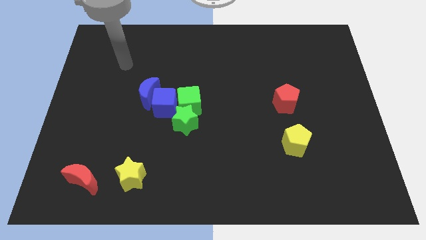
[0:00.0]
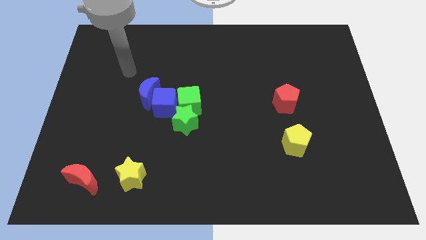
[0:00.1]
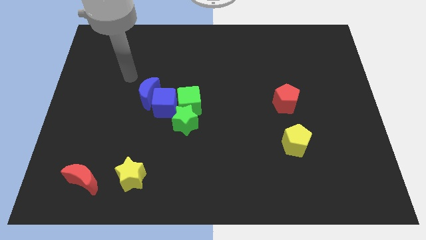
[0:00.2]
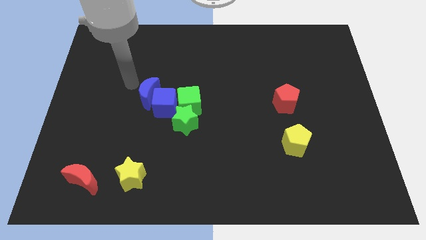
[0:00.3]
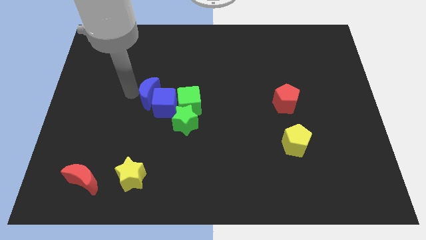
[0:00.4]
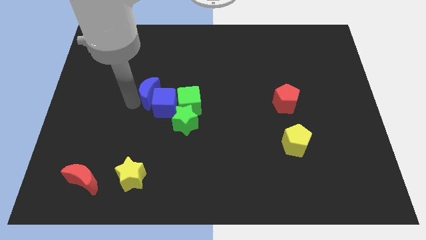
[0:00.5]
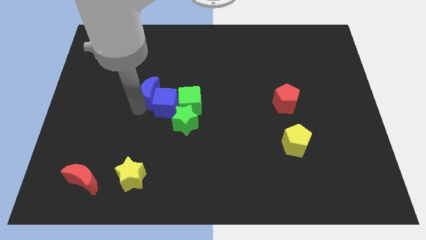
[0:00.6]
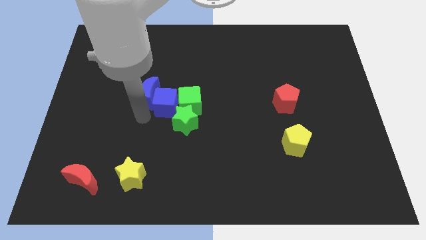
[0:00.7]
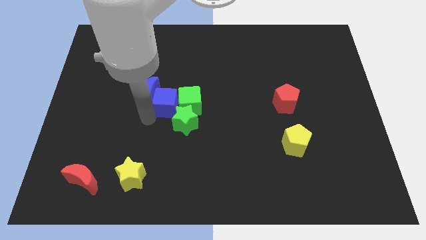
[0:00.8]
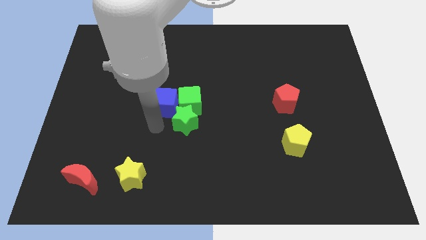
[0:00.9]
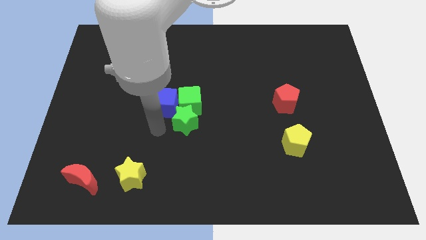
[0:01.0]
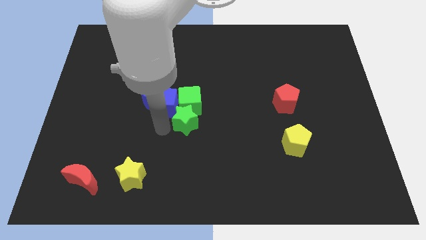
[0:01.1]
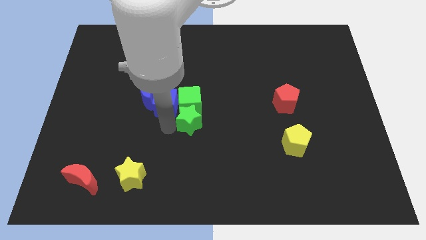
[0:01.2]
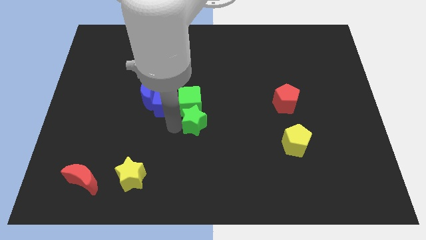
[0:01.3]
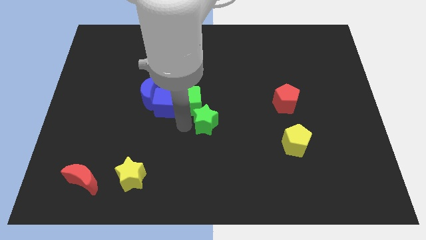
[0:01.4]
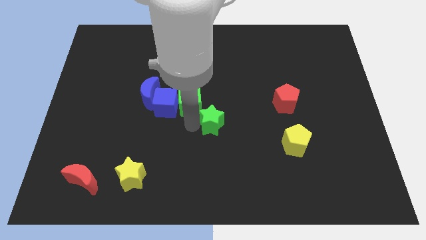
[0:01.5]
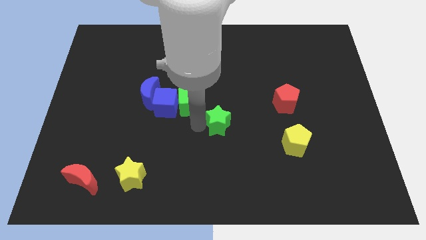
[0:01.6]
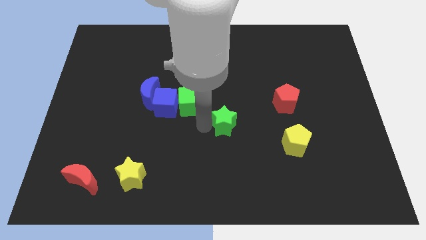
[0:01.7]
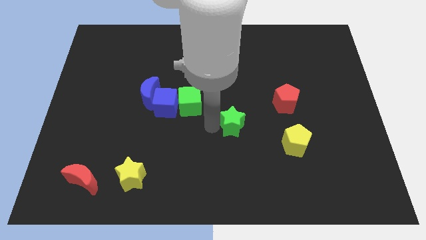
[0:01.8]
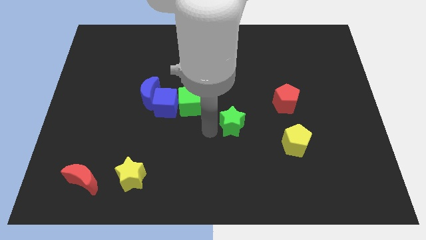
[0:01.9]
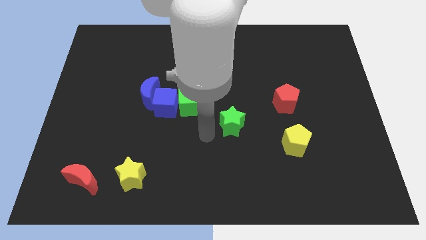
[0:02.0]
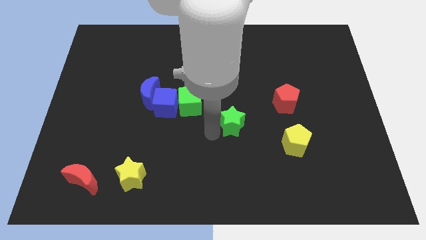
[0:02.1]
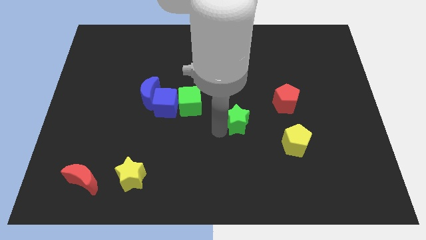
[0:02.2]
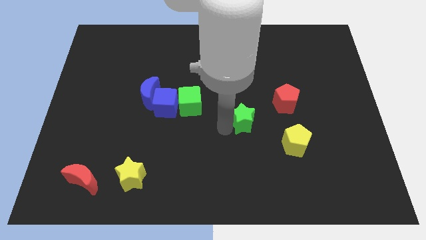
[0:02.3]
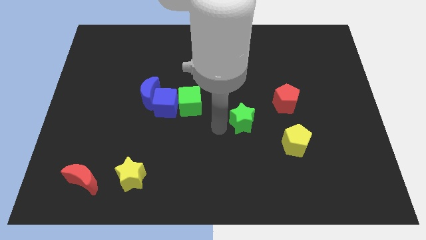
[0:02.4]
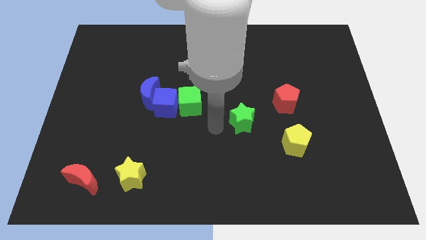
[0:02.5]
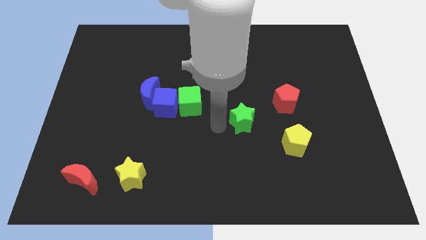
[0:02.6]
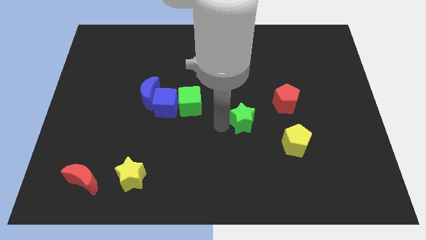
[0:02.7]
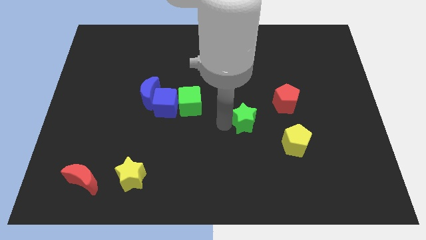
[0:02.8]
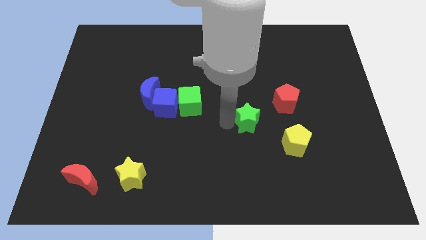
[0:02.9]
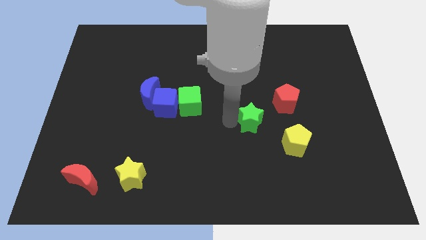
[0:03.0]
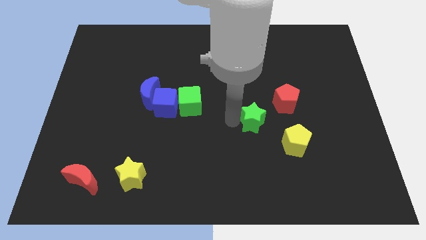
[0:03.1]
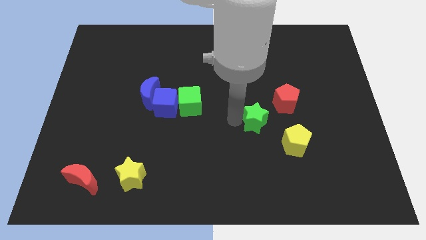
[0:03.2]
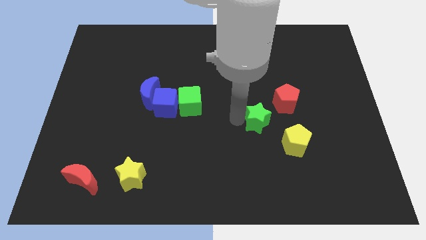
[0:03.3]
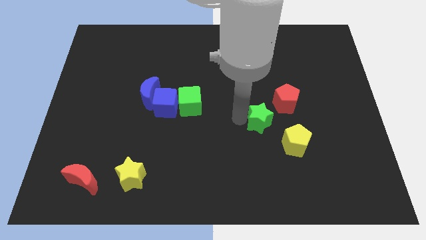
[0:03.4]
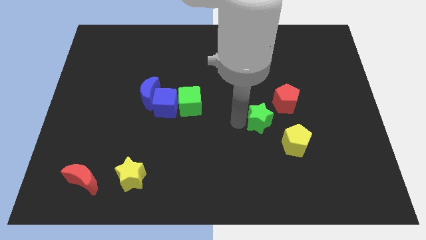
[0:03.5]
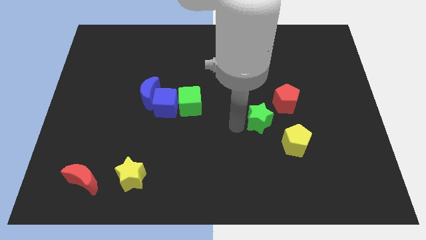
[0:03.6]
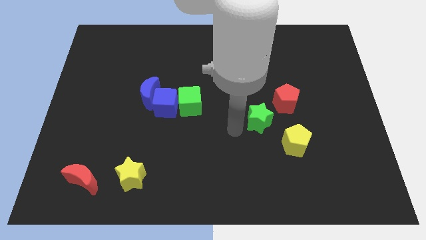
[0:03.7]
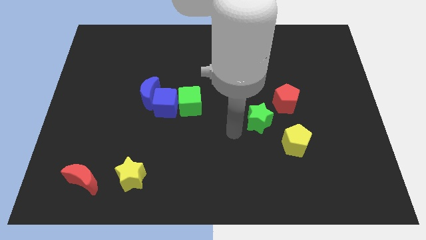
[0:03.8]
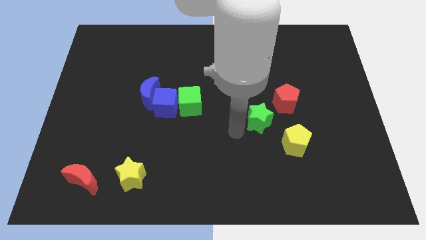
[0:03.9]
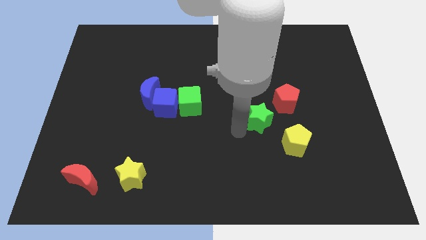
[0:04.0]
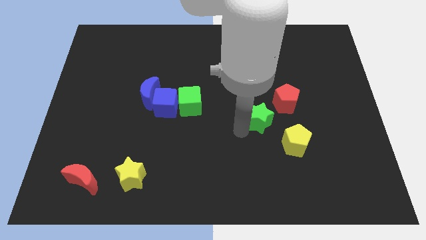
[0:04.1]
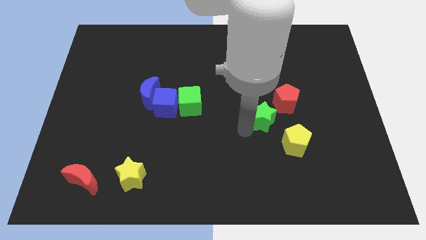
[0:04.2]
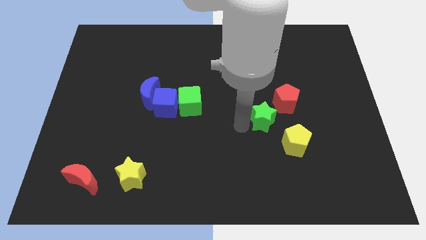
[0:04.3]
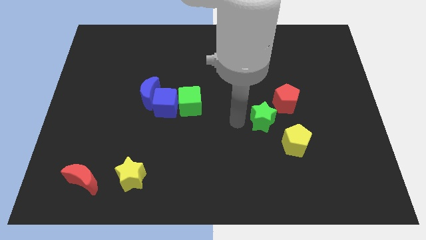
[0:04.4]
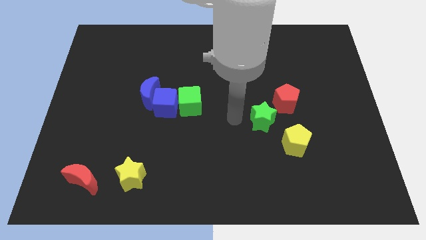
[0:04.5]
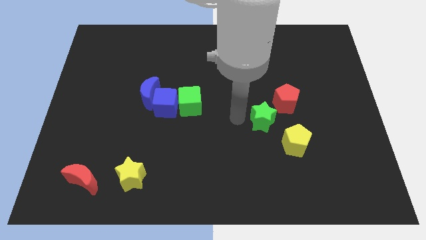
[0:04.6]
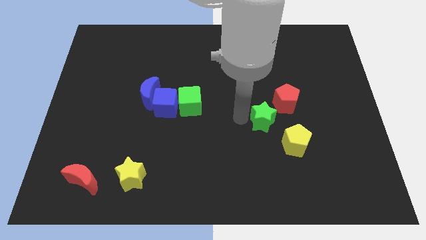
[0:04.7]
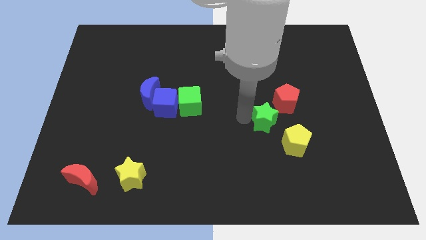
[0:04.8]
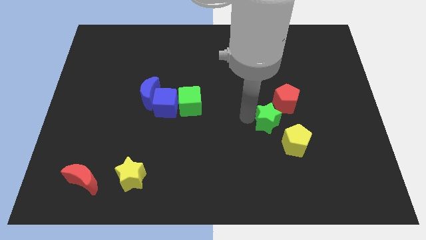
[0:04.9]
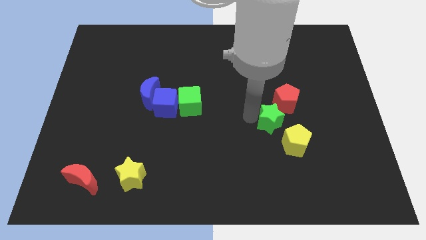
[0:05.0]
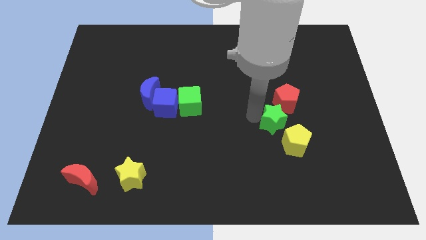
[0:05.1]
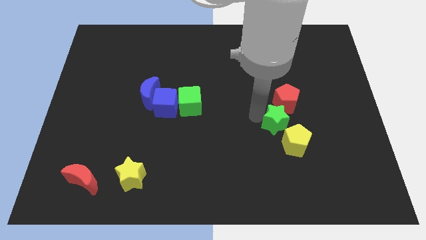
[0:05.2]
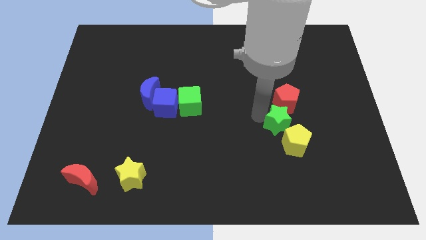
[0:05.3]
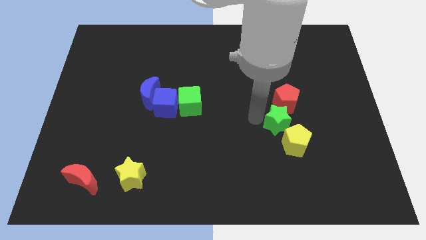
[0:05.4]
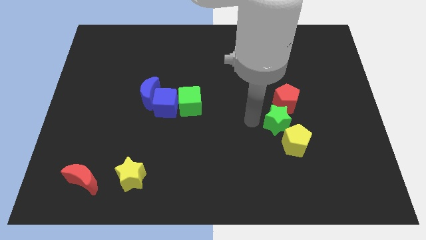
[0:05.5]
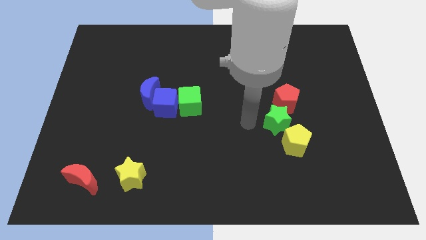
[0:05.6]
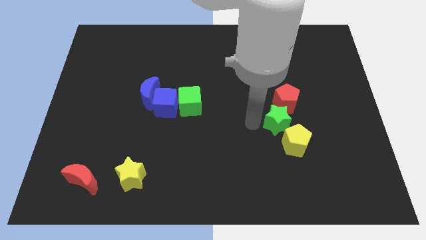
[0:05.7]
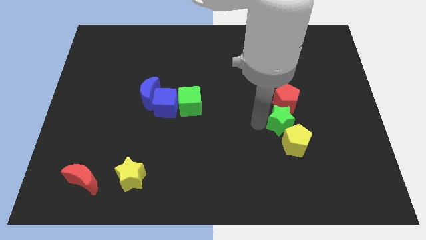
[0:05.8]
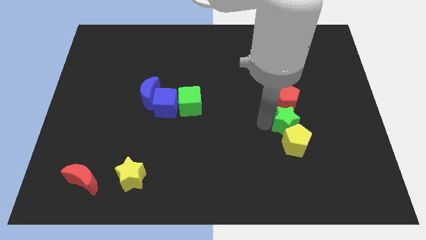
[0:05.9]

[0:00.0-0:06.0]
move the green star to the top right of the yellow pentagon

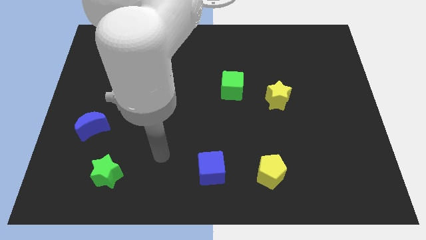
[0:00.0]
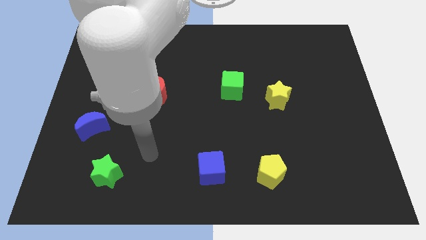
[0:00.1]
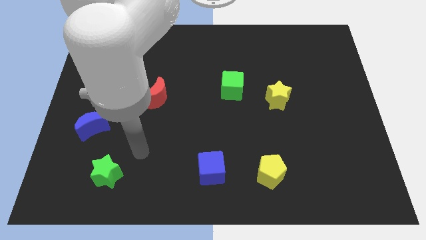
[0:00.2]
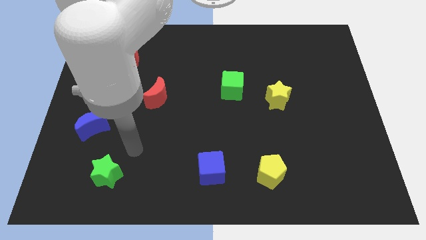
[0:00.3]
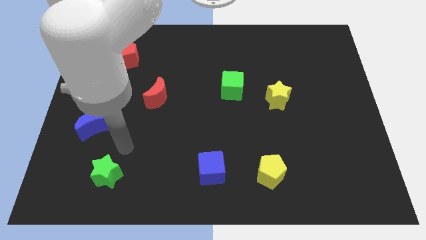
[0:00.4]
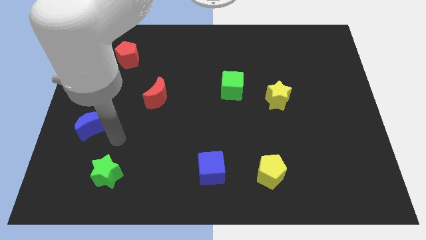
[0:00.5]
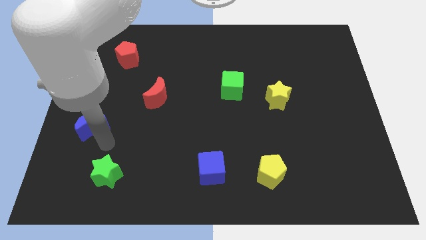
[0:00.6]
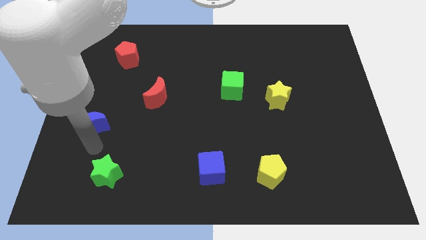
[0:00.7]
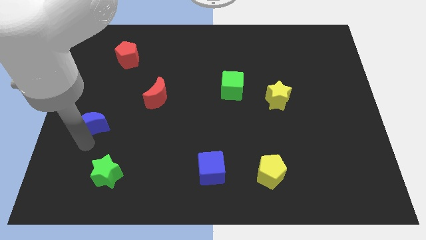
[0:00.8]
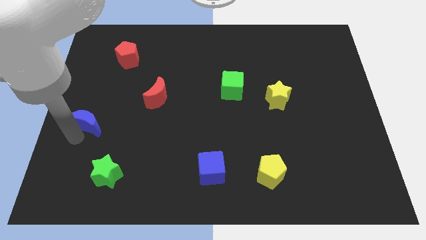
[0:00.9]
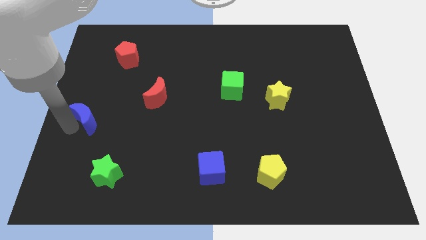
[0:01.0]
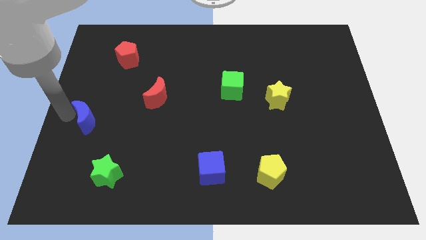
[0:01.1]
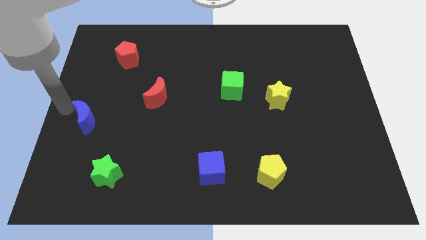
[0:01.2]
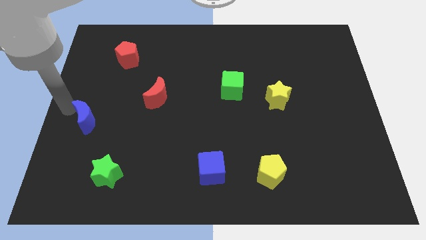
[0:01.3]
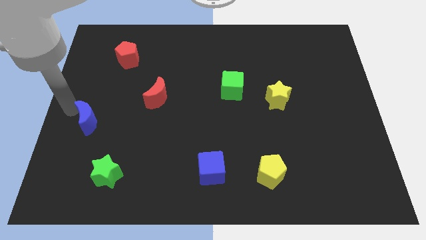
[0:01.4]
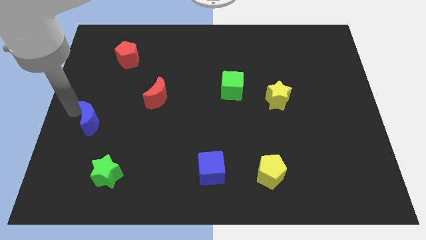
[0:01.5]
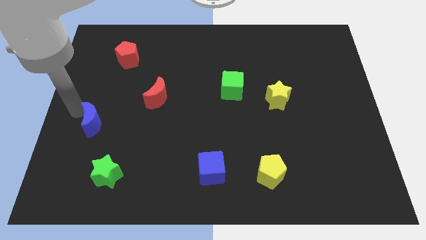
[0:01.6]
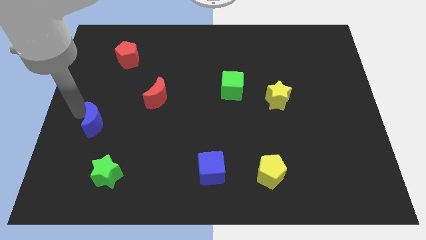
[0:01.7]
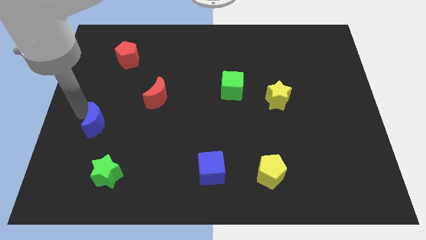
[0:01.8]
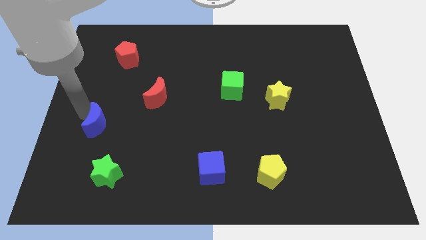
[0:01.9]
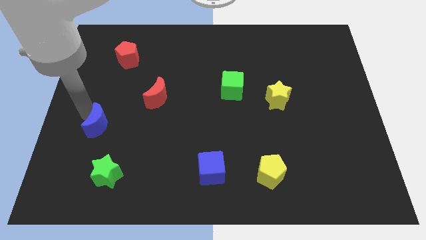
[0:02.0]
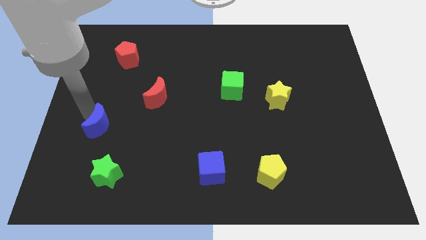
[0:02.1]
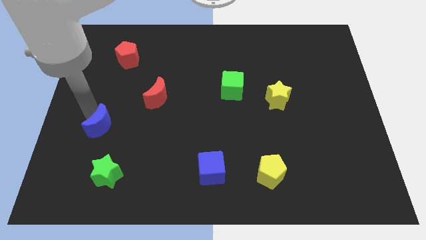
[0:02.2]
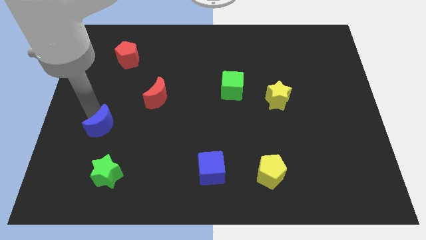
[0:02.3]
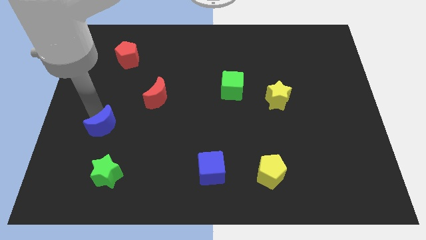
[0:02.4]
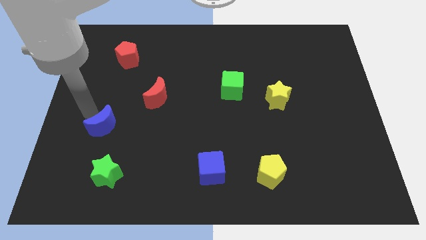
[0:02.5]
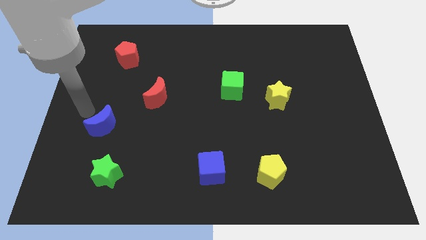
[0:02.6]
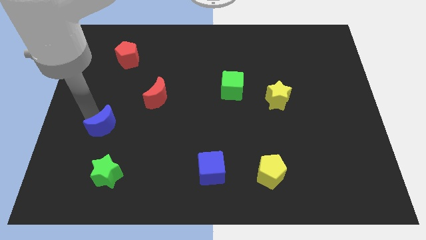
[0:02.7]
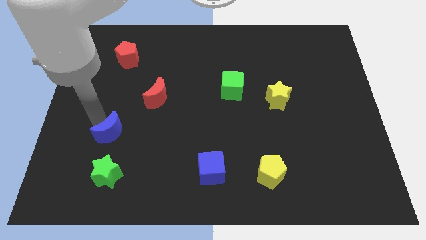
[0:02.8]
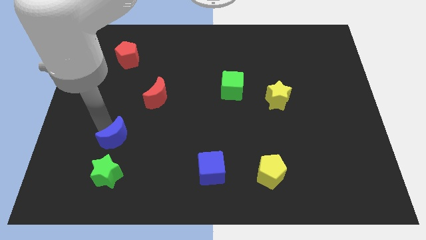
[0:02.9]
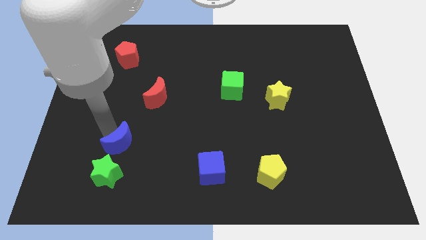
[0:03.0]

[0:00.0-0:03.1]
push the blue moon to the top right of the green star
